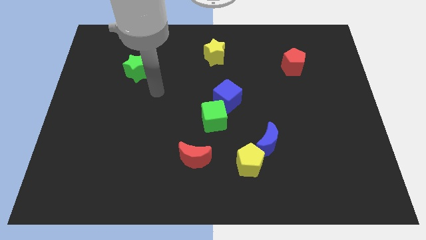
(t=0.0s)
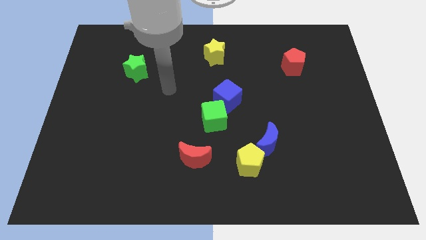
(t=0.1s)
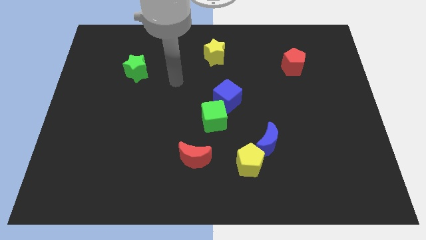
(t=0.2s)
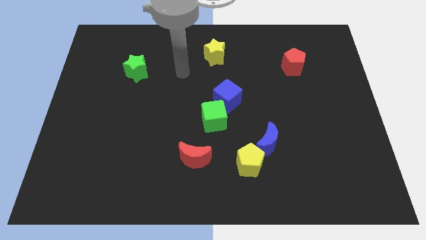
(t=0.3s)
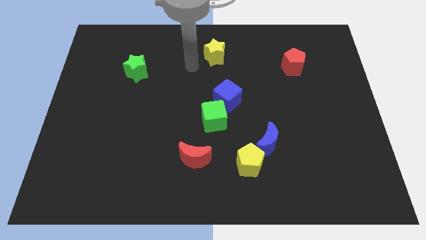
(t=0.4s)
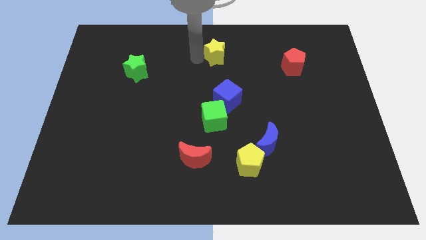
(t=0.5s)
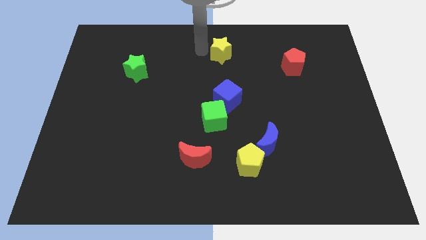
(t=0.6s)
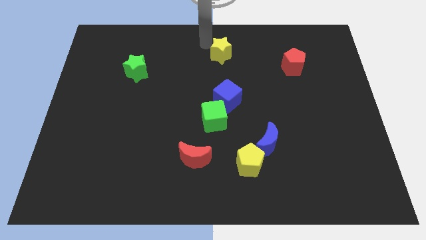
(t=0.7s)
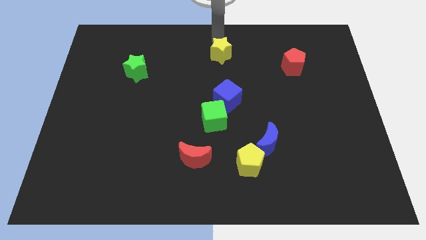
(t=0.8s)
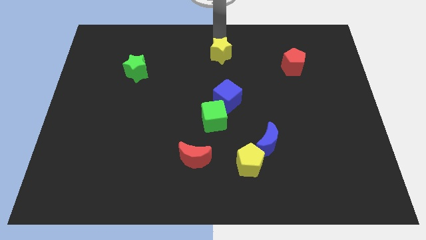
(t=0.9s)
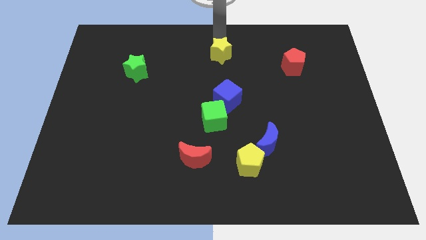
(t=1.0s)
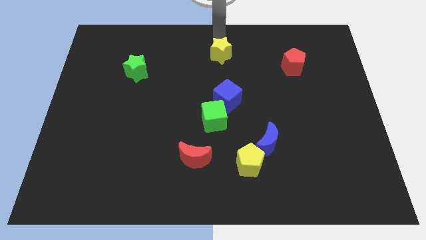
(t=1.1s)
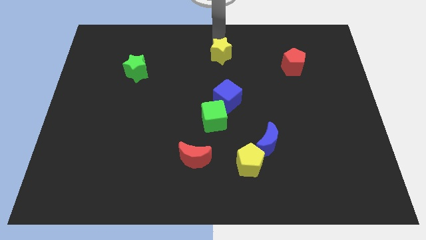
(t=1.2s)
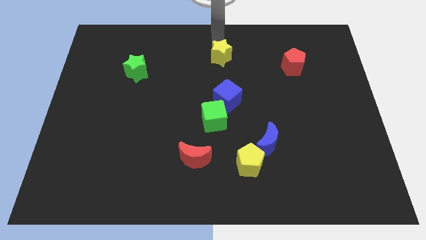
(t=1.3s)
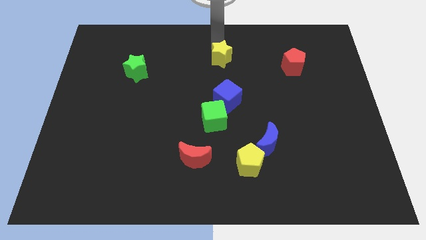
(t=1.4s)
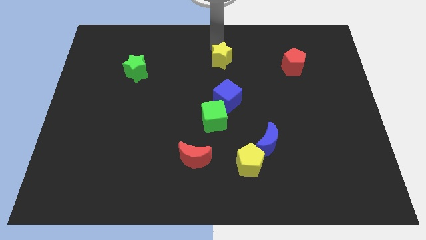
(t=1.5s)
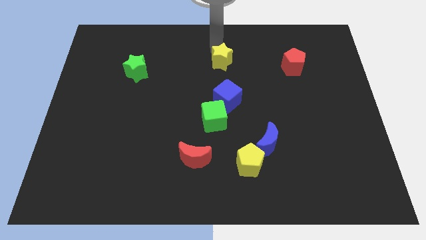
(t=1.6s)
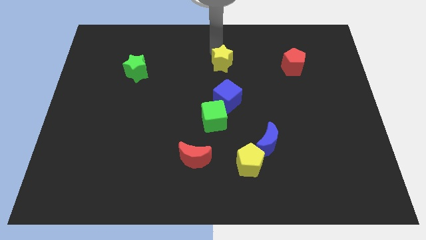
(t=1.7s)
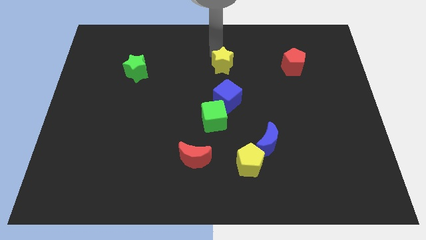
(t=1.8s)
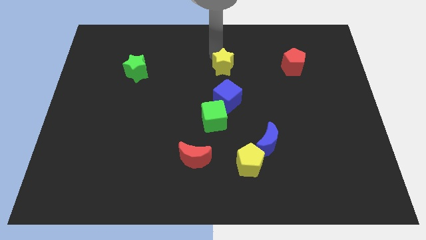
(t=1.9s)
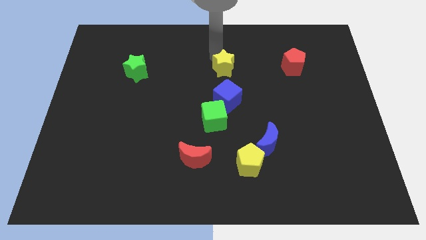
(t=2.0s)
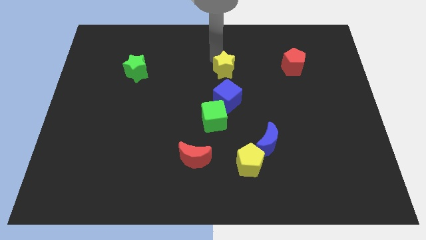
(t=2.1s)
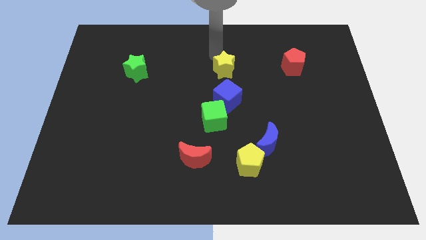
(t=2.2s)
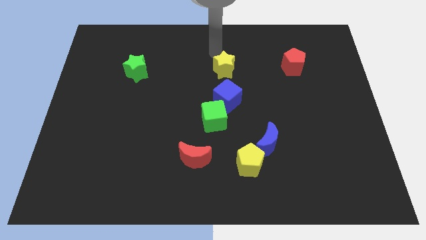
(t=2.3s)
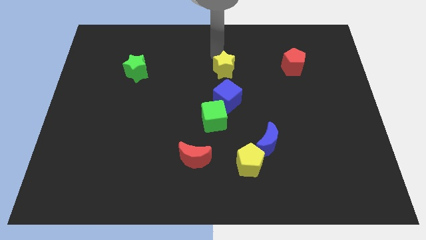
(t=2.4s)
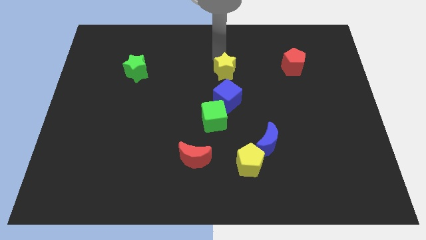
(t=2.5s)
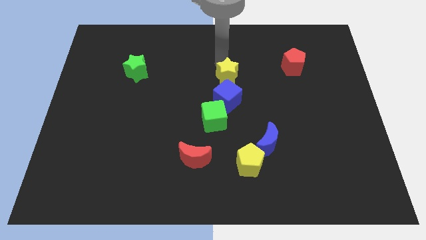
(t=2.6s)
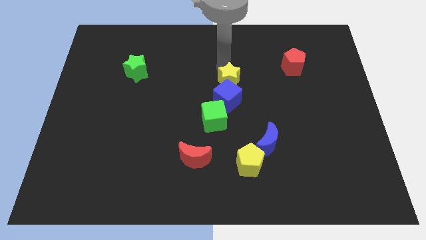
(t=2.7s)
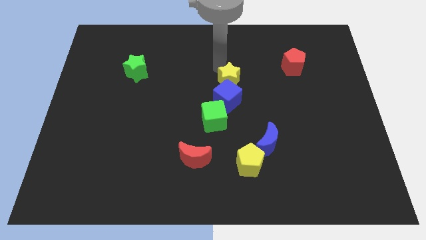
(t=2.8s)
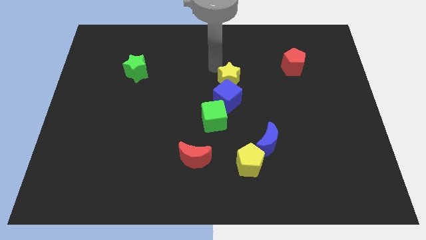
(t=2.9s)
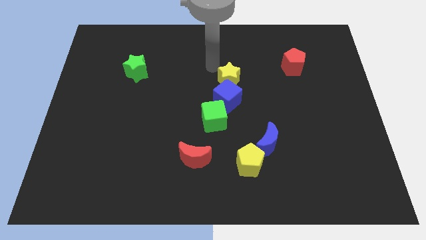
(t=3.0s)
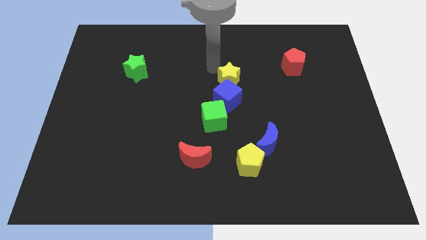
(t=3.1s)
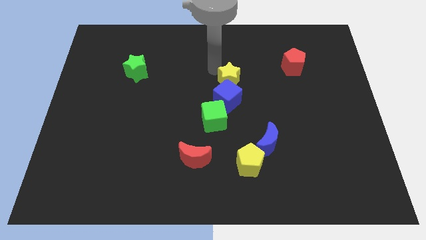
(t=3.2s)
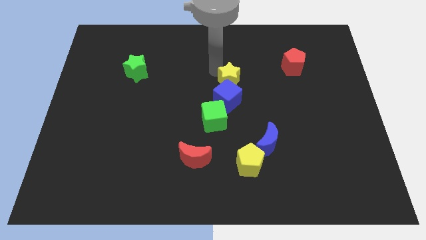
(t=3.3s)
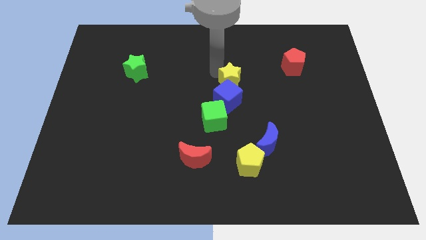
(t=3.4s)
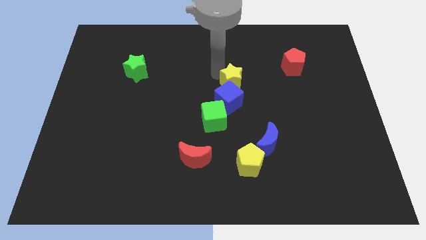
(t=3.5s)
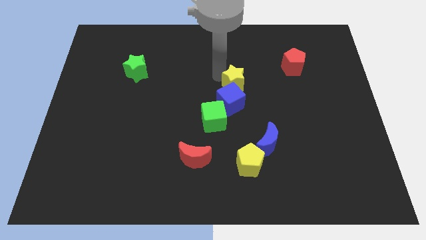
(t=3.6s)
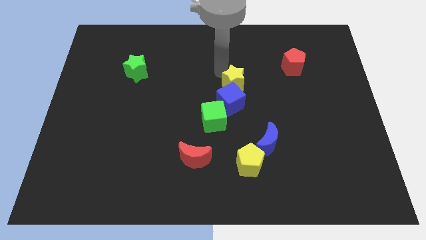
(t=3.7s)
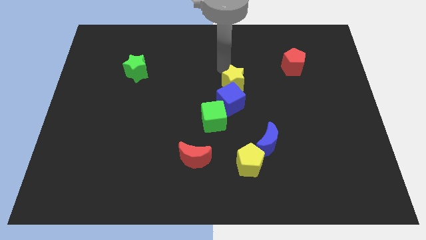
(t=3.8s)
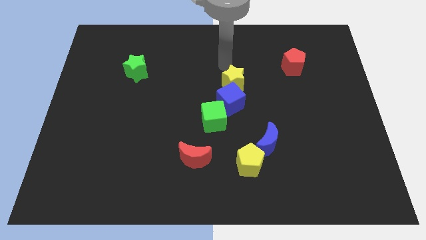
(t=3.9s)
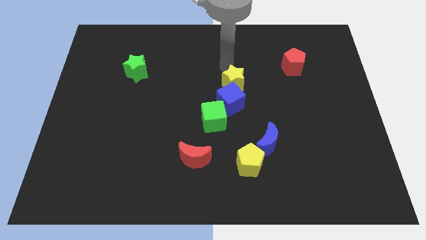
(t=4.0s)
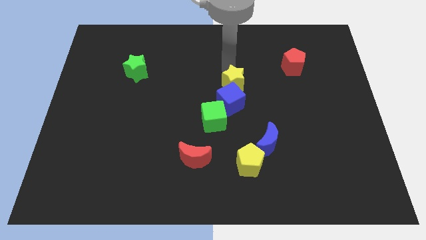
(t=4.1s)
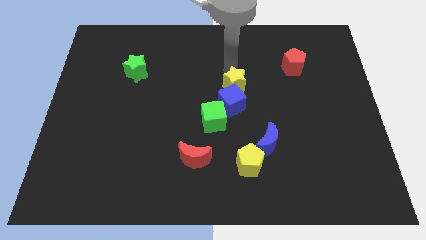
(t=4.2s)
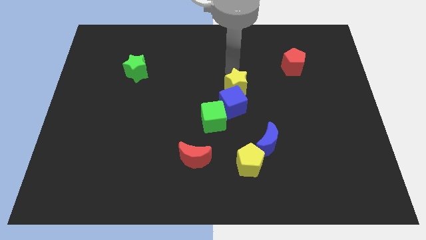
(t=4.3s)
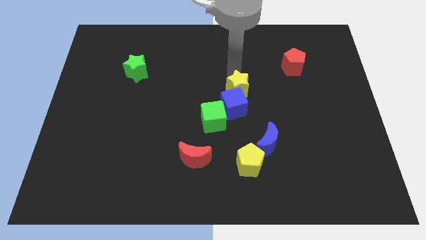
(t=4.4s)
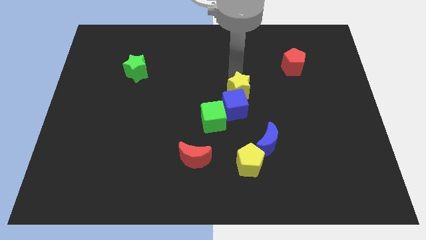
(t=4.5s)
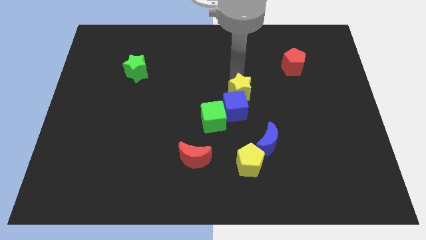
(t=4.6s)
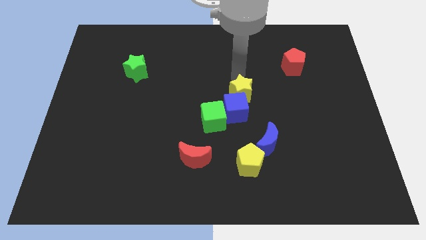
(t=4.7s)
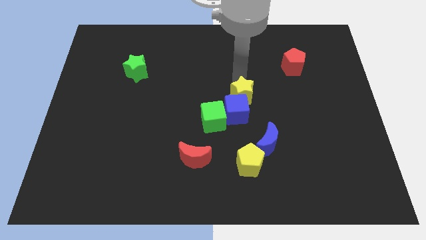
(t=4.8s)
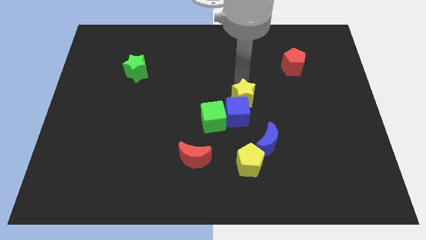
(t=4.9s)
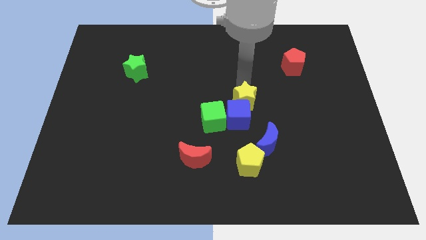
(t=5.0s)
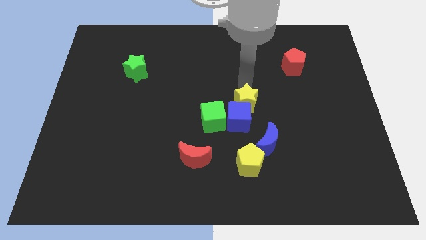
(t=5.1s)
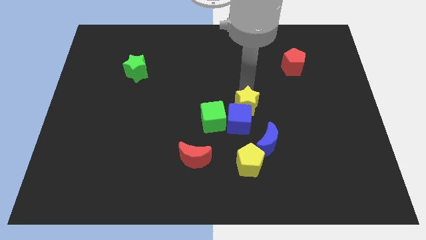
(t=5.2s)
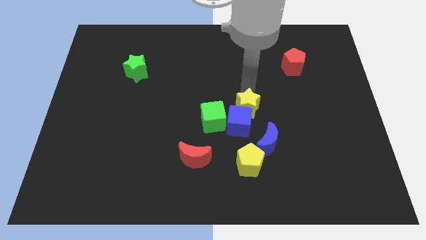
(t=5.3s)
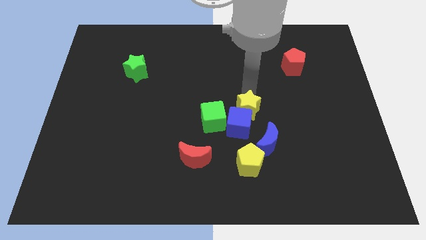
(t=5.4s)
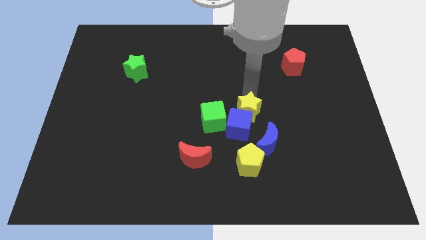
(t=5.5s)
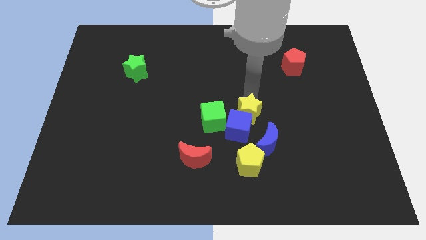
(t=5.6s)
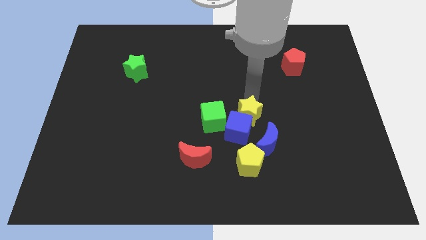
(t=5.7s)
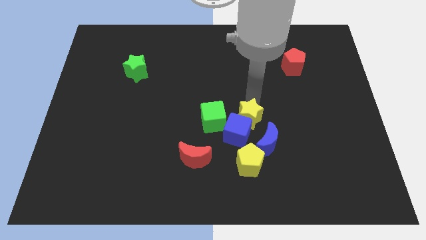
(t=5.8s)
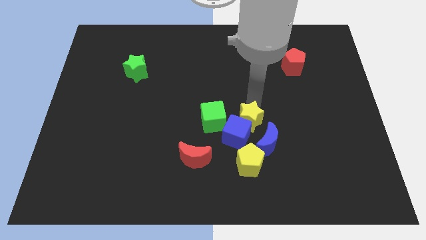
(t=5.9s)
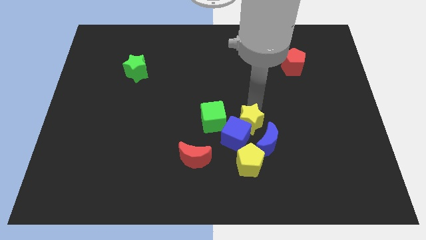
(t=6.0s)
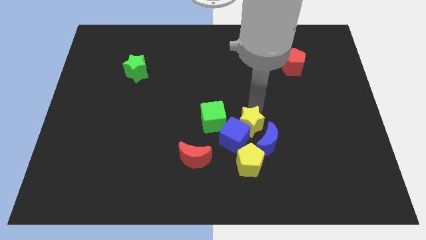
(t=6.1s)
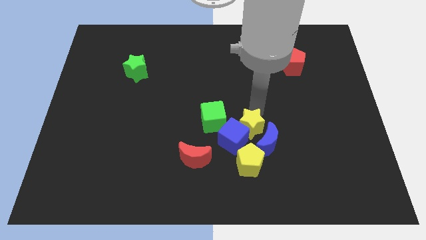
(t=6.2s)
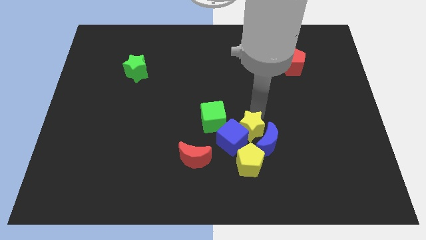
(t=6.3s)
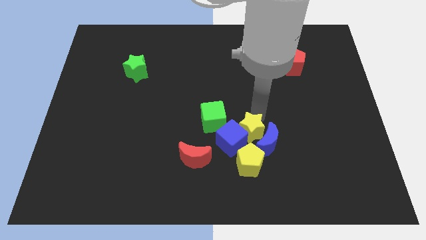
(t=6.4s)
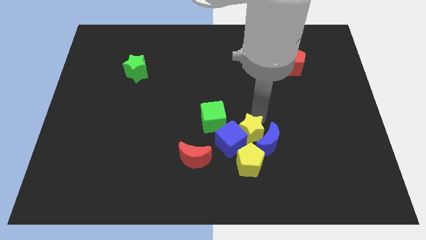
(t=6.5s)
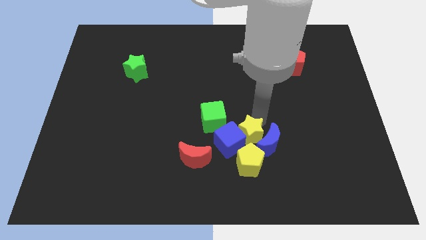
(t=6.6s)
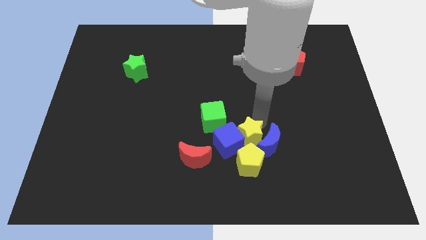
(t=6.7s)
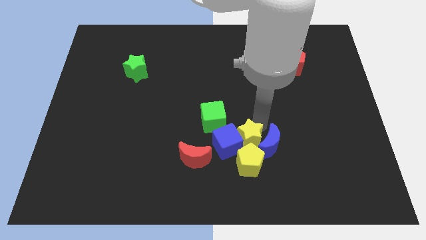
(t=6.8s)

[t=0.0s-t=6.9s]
put the yellow star towards the yellow pentagon

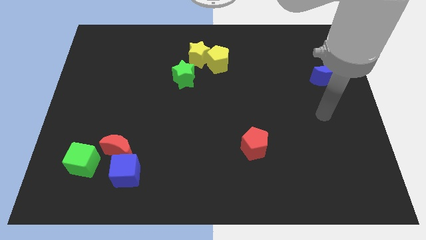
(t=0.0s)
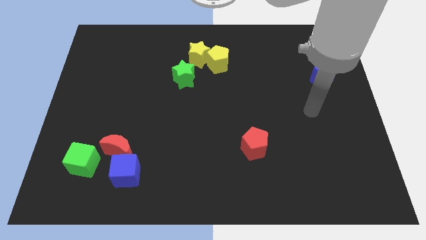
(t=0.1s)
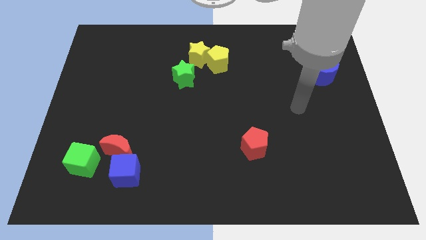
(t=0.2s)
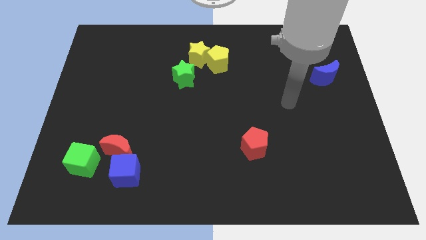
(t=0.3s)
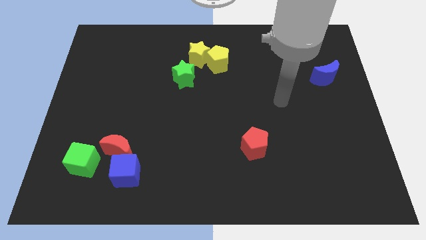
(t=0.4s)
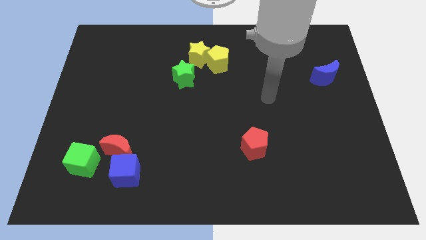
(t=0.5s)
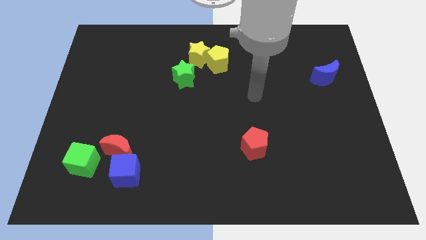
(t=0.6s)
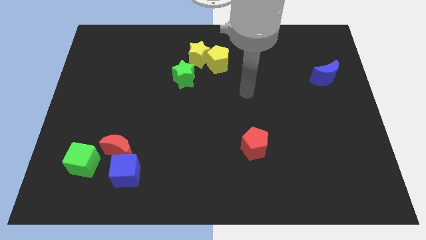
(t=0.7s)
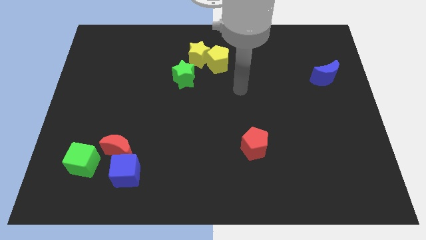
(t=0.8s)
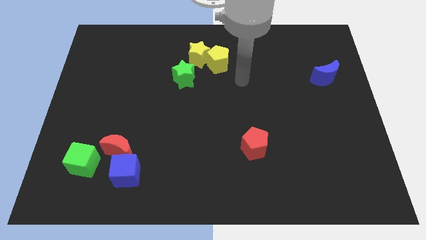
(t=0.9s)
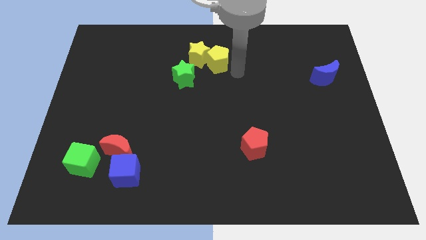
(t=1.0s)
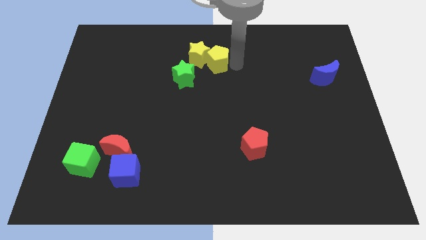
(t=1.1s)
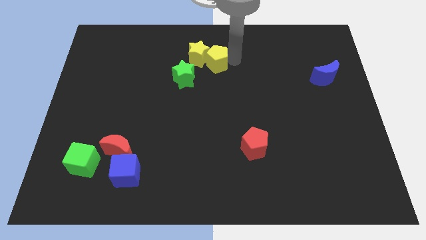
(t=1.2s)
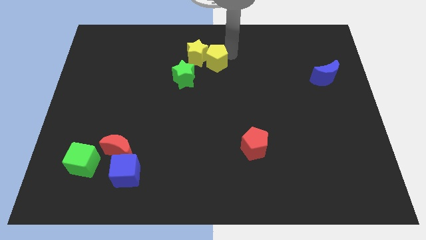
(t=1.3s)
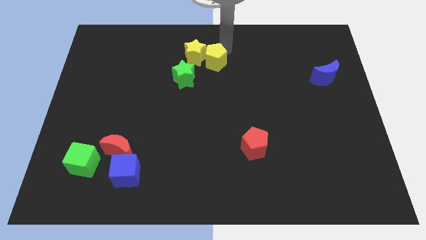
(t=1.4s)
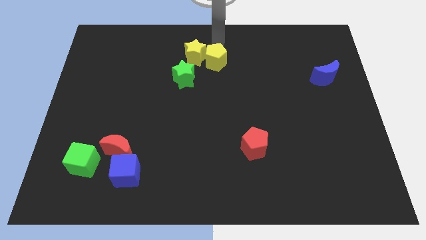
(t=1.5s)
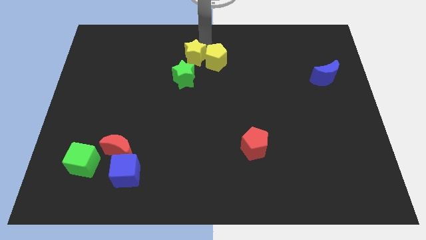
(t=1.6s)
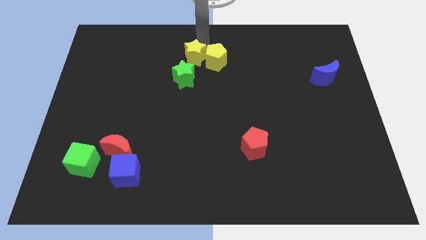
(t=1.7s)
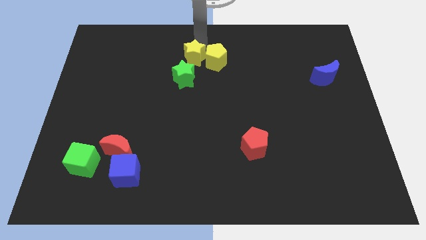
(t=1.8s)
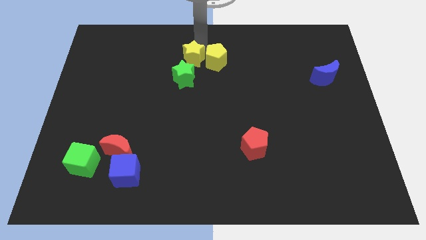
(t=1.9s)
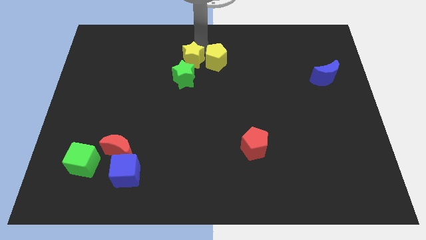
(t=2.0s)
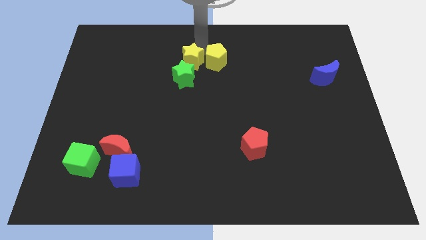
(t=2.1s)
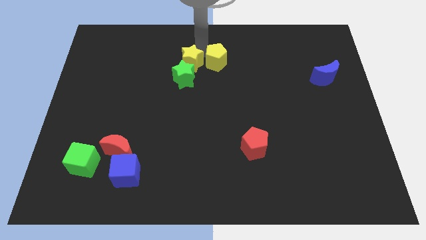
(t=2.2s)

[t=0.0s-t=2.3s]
slide the yellow star towards the green star
